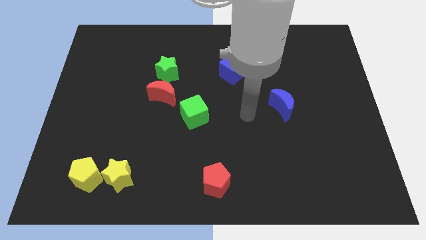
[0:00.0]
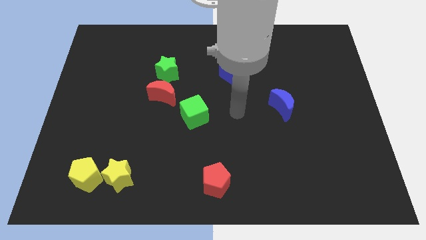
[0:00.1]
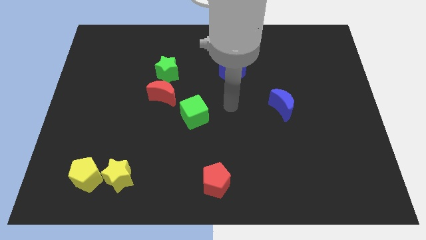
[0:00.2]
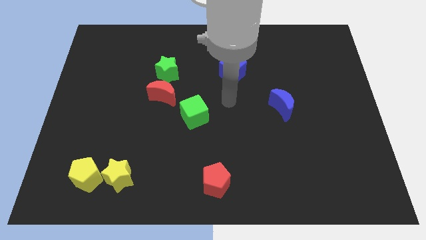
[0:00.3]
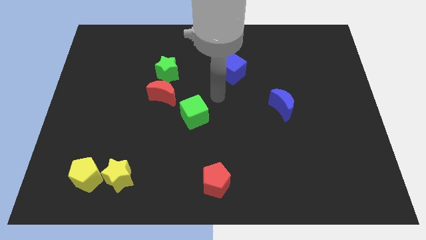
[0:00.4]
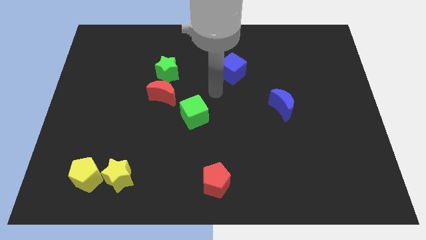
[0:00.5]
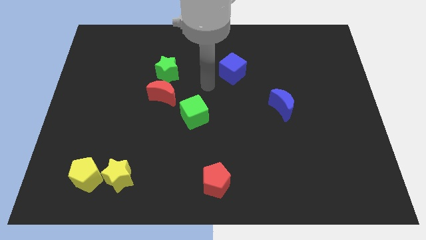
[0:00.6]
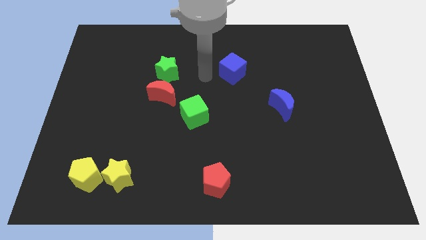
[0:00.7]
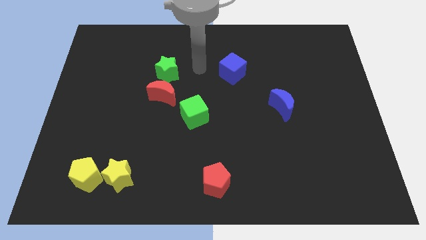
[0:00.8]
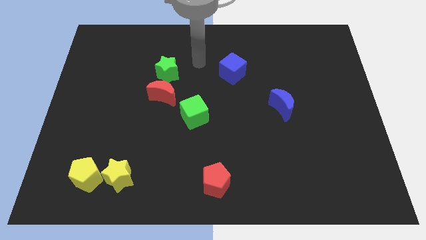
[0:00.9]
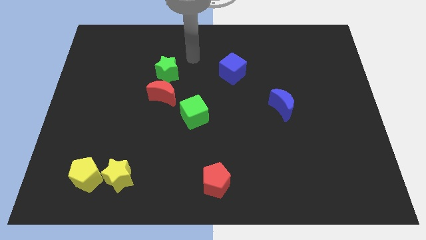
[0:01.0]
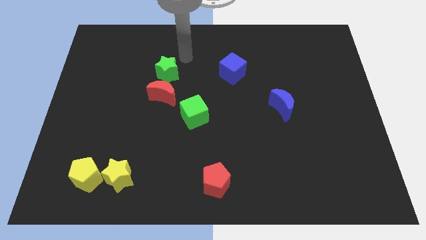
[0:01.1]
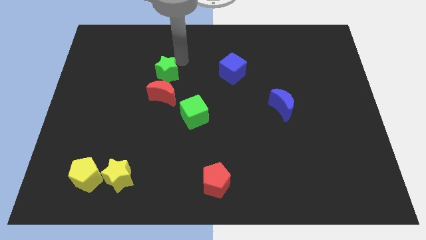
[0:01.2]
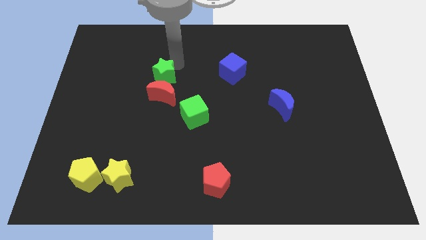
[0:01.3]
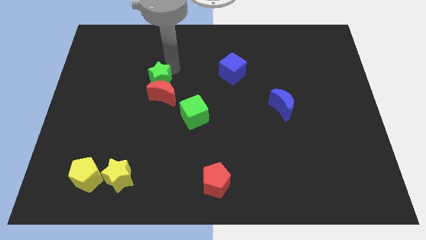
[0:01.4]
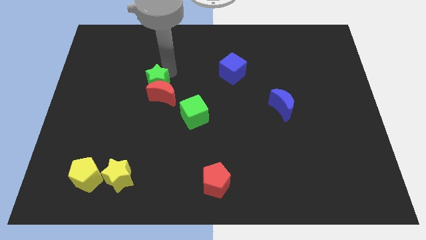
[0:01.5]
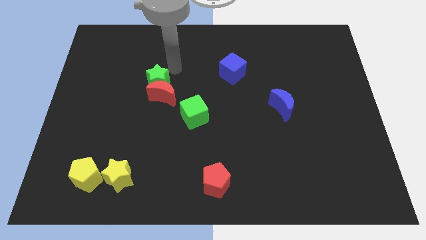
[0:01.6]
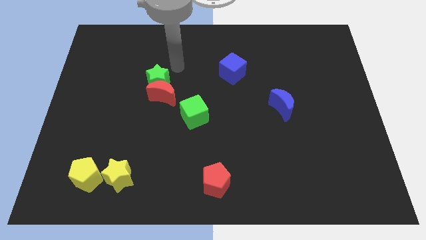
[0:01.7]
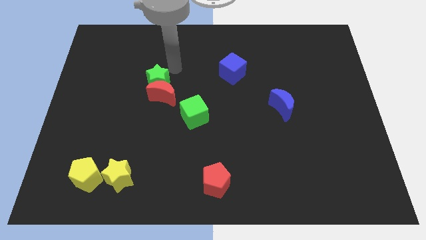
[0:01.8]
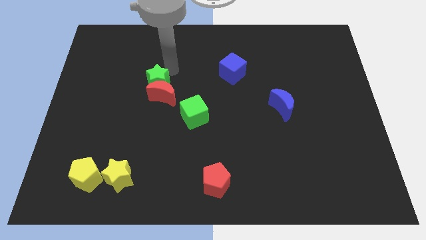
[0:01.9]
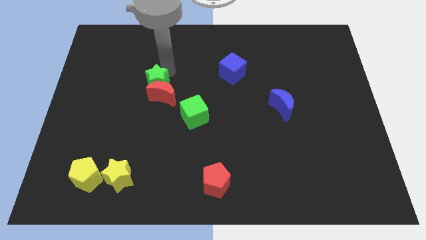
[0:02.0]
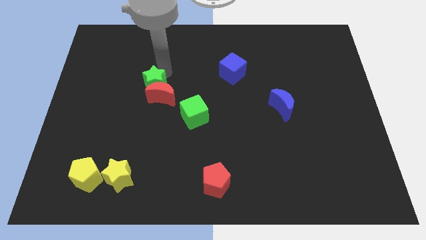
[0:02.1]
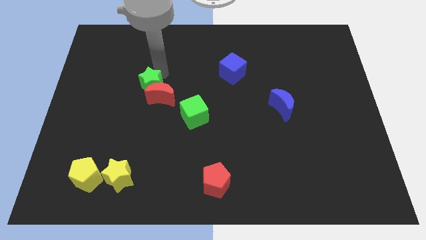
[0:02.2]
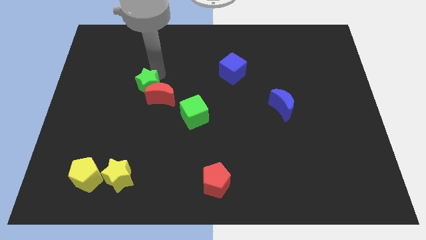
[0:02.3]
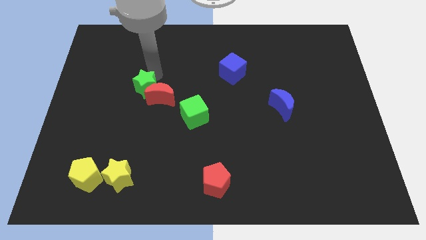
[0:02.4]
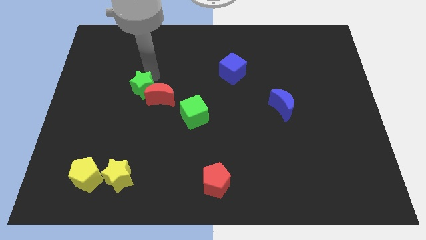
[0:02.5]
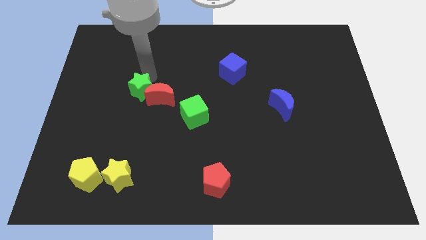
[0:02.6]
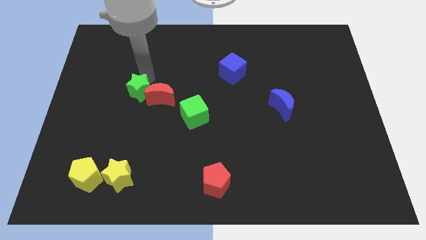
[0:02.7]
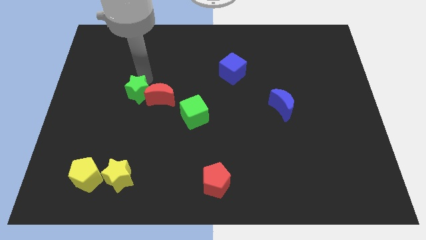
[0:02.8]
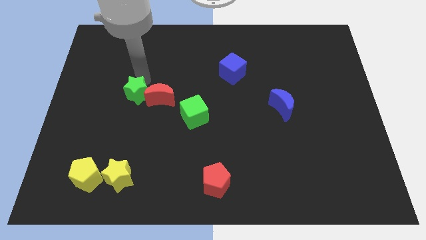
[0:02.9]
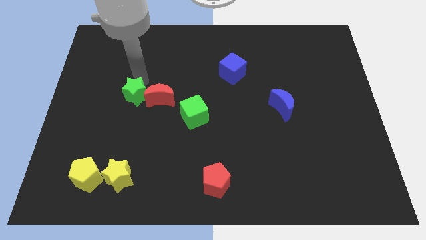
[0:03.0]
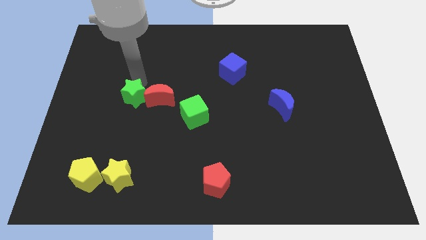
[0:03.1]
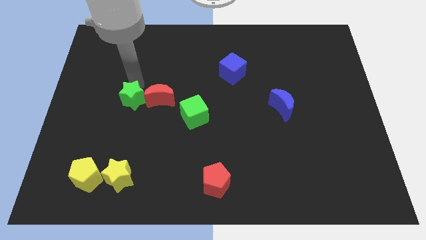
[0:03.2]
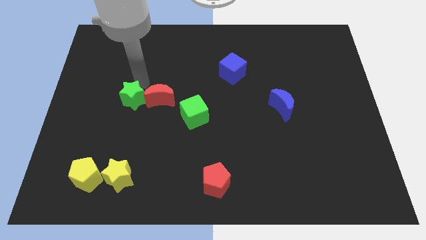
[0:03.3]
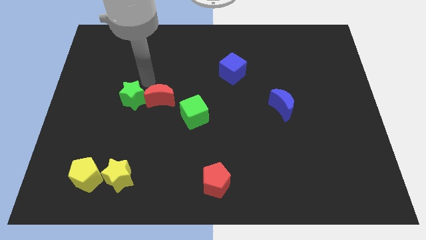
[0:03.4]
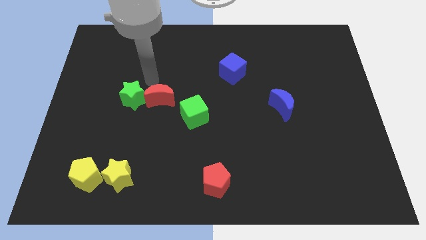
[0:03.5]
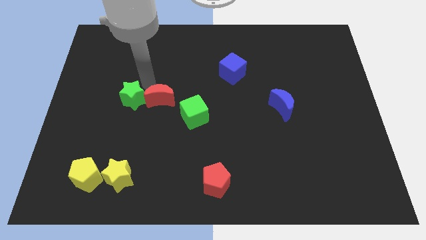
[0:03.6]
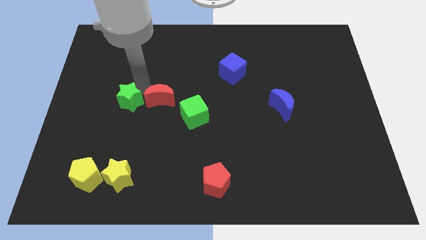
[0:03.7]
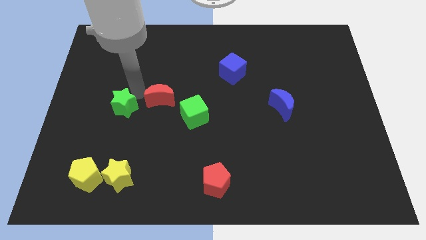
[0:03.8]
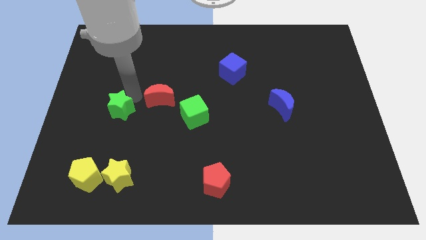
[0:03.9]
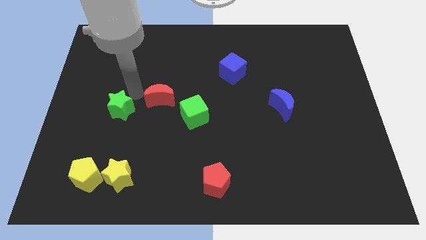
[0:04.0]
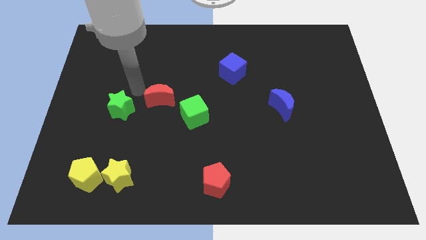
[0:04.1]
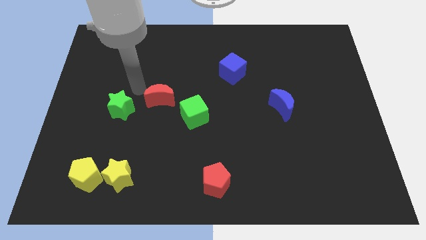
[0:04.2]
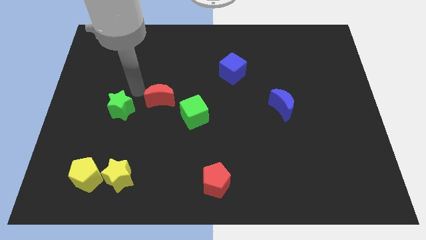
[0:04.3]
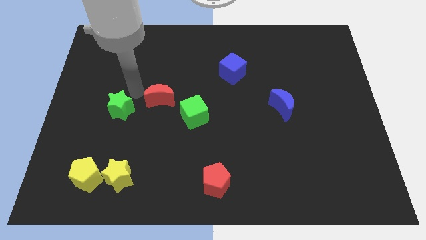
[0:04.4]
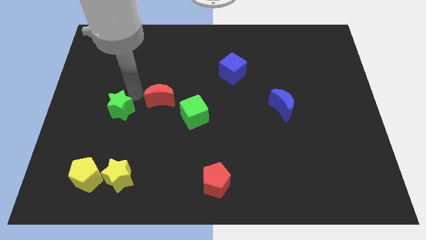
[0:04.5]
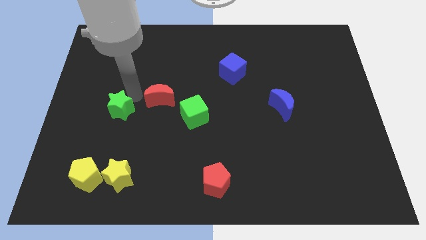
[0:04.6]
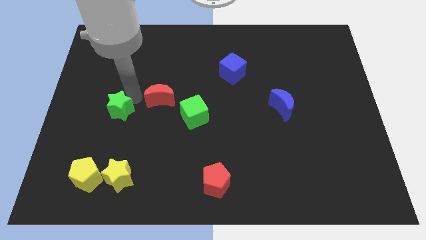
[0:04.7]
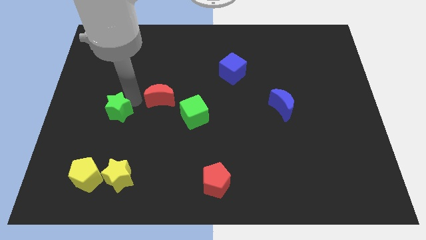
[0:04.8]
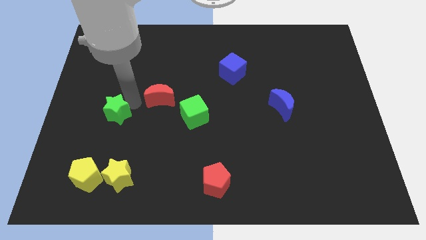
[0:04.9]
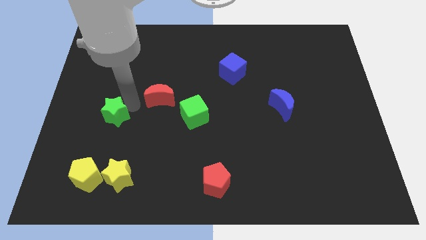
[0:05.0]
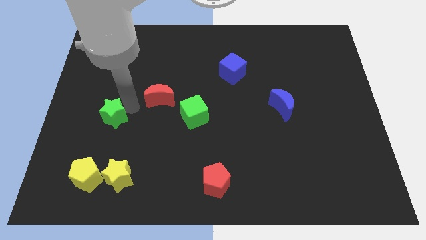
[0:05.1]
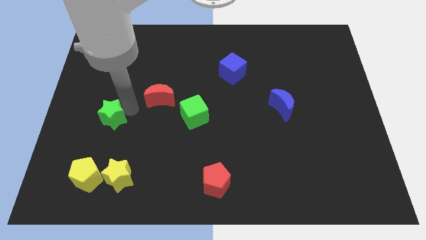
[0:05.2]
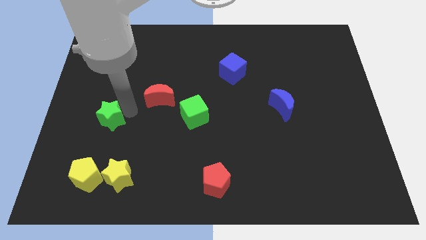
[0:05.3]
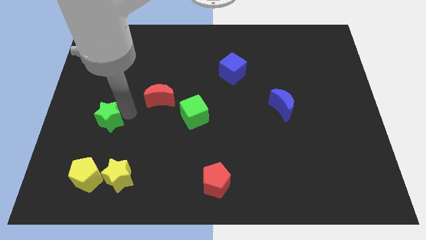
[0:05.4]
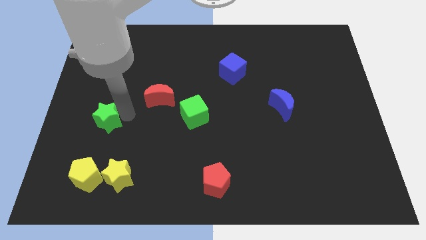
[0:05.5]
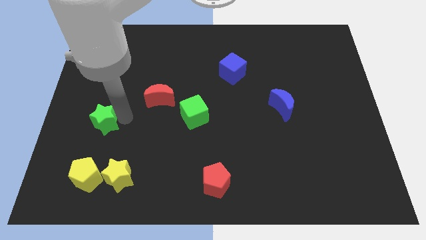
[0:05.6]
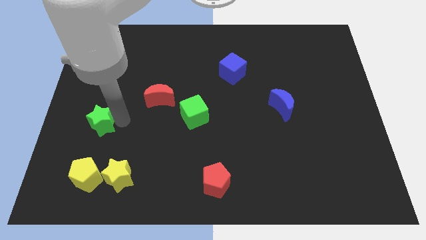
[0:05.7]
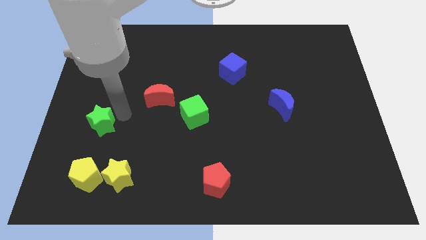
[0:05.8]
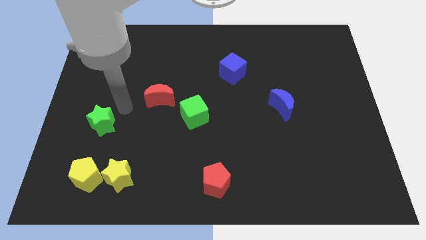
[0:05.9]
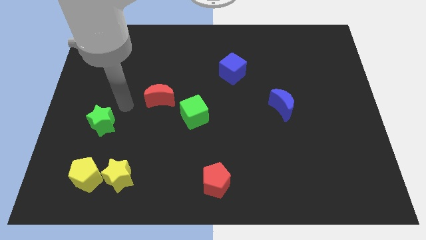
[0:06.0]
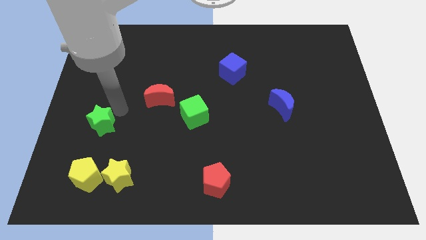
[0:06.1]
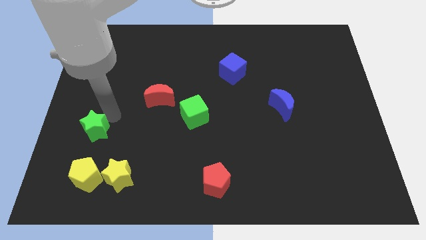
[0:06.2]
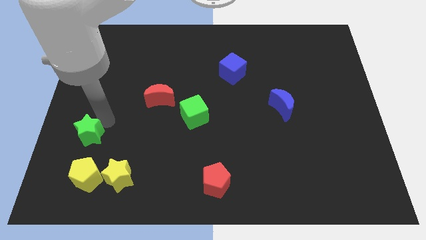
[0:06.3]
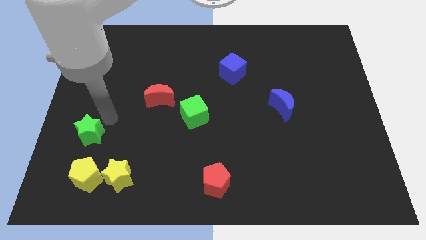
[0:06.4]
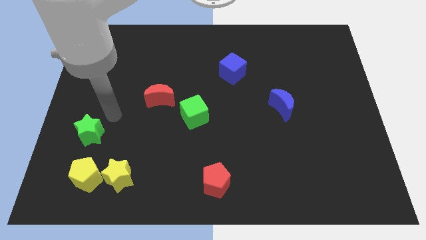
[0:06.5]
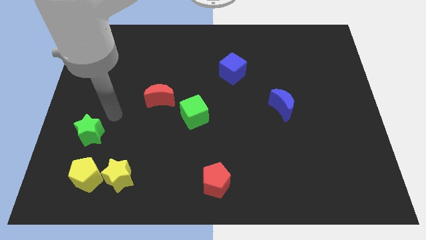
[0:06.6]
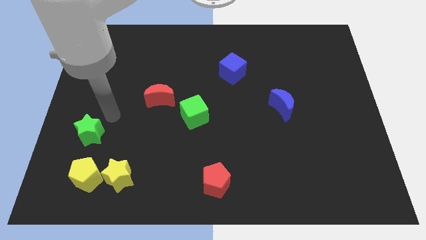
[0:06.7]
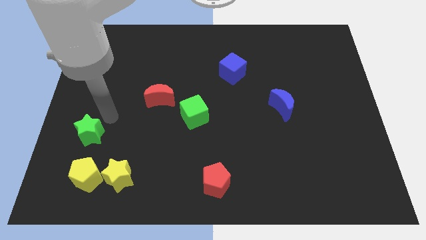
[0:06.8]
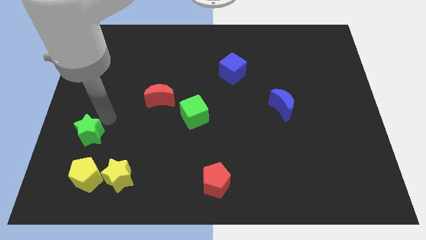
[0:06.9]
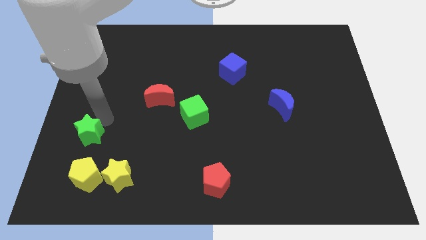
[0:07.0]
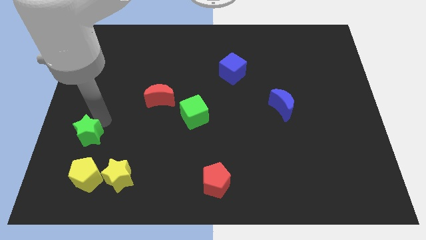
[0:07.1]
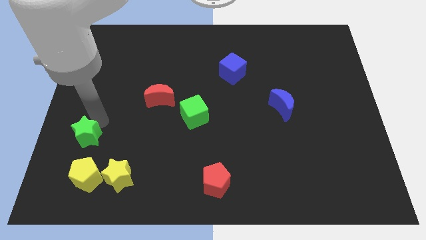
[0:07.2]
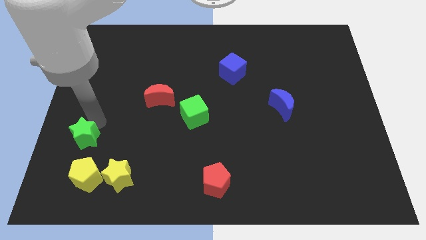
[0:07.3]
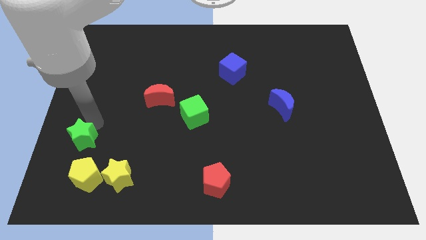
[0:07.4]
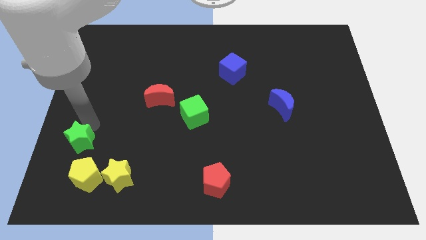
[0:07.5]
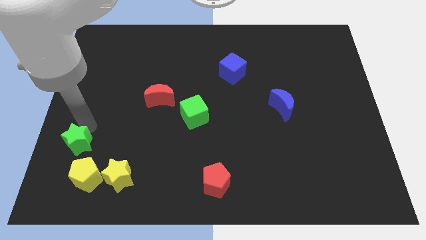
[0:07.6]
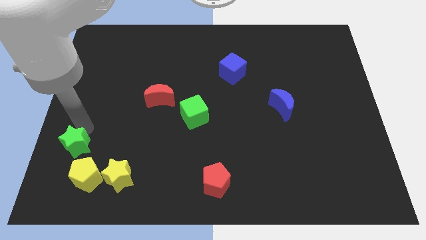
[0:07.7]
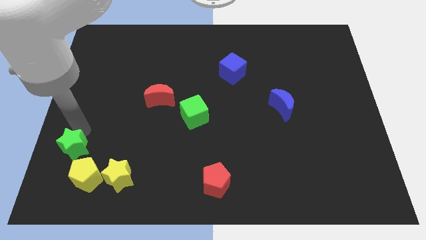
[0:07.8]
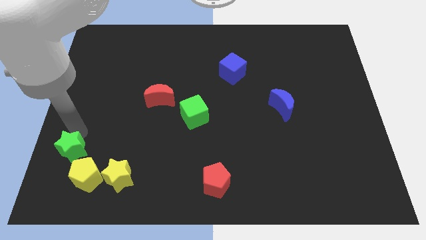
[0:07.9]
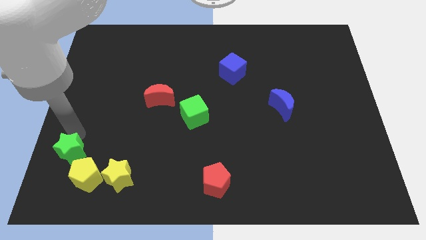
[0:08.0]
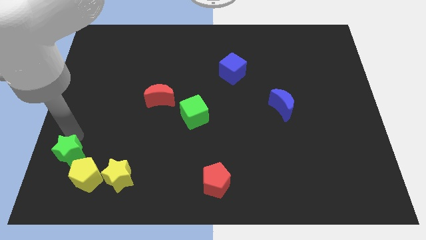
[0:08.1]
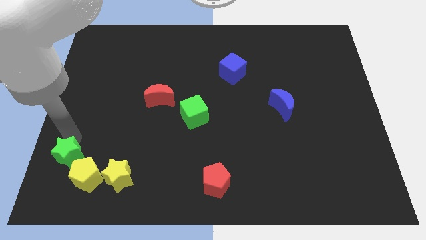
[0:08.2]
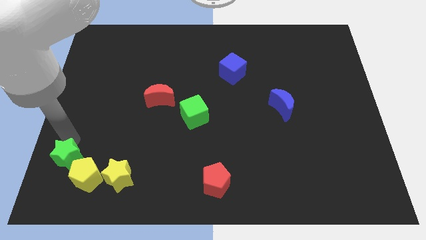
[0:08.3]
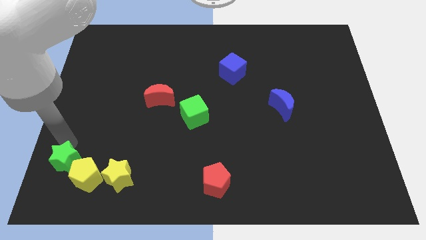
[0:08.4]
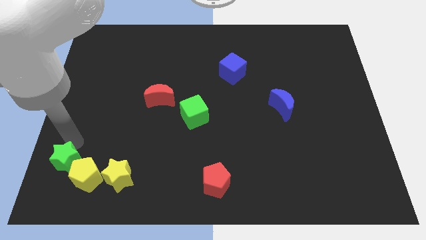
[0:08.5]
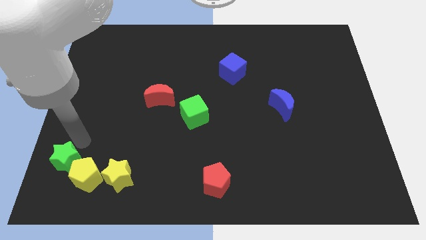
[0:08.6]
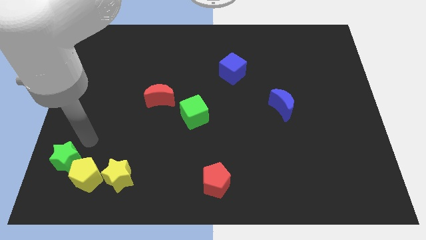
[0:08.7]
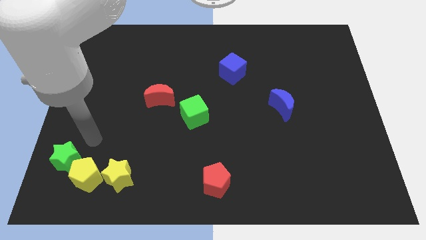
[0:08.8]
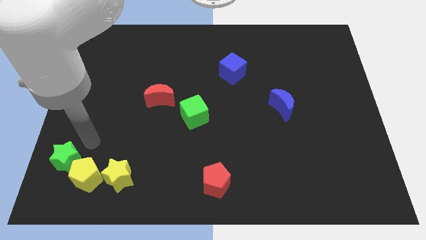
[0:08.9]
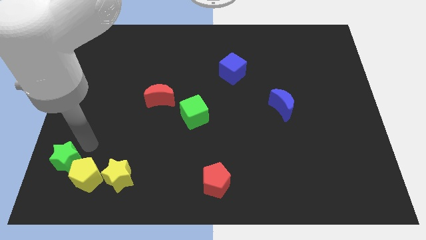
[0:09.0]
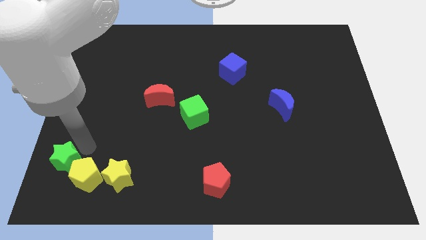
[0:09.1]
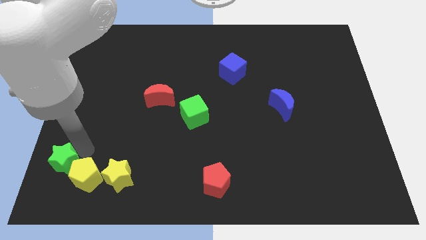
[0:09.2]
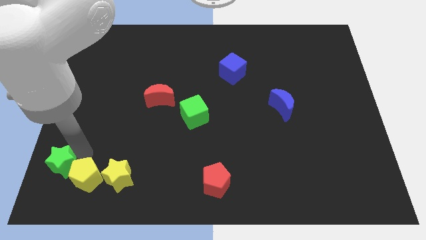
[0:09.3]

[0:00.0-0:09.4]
move the green star to the bottom left corner
